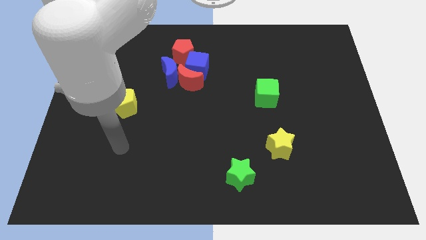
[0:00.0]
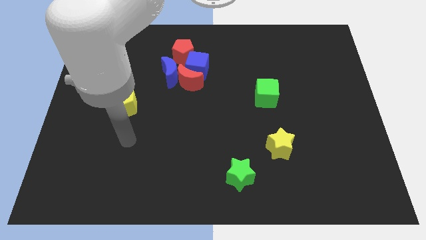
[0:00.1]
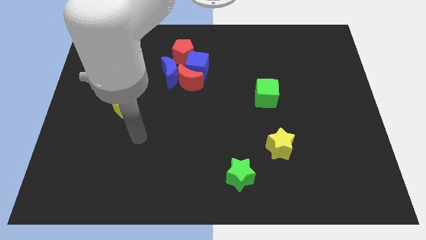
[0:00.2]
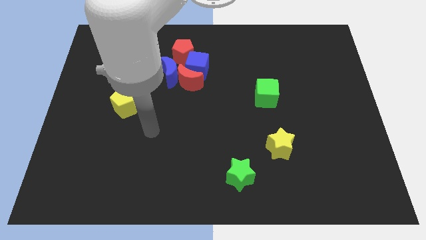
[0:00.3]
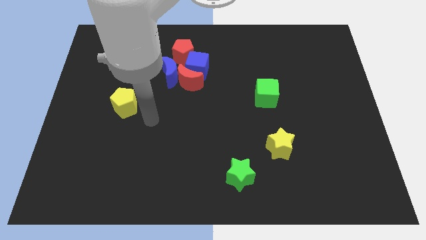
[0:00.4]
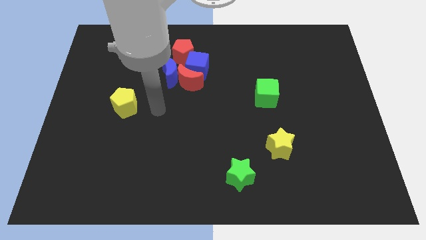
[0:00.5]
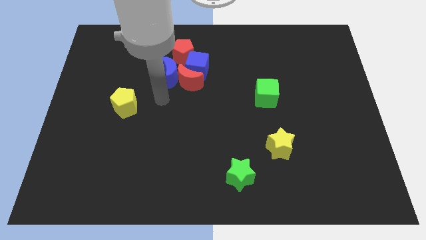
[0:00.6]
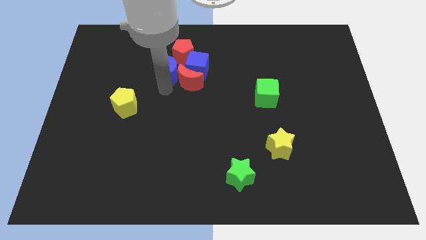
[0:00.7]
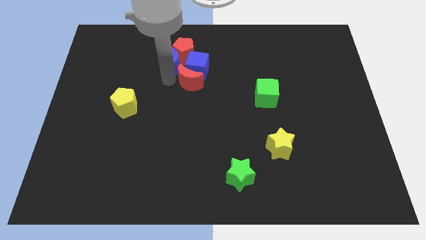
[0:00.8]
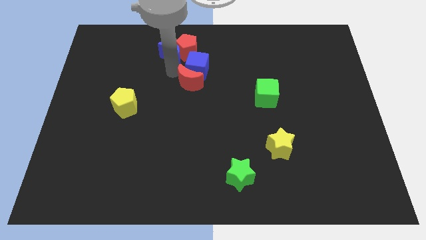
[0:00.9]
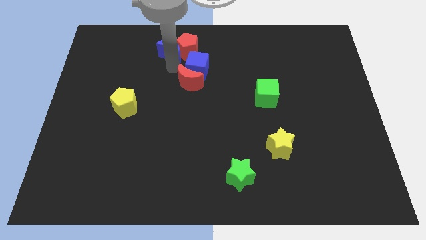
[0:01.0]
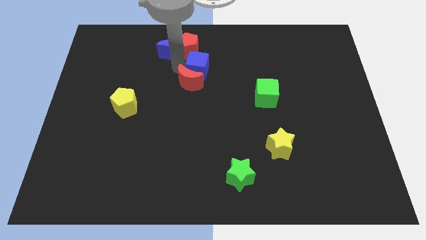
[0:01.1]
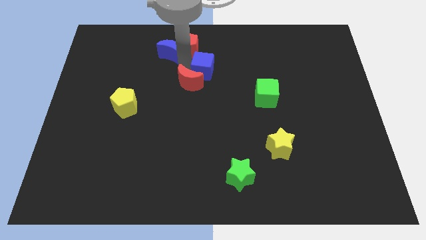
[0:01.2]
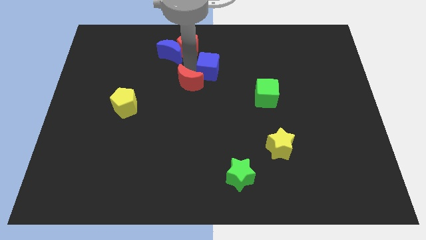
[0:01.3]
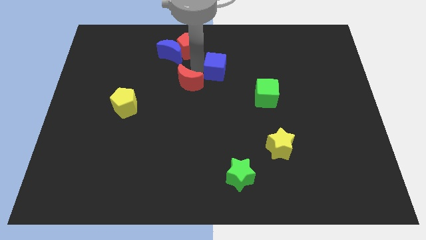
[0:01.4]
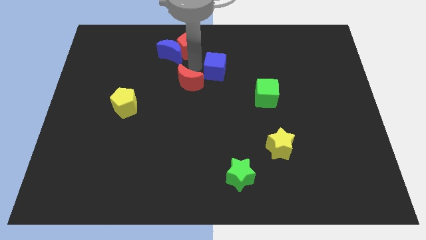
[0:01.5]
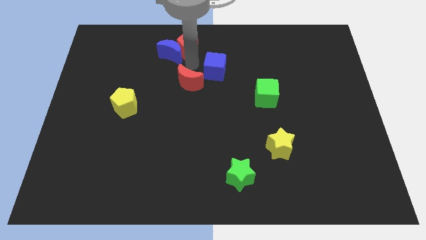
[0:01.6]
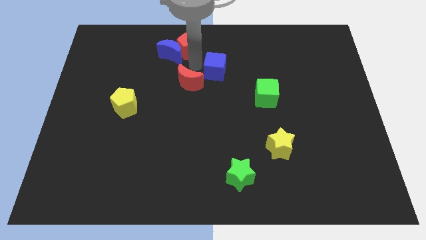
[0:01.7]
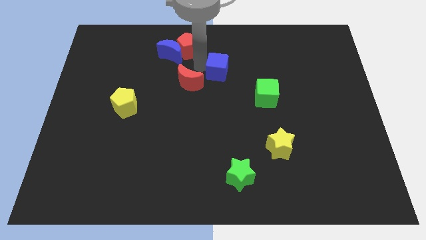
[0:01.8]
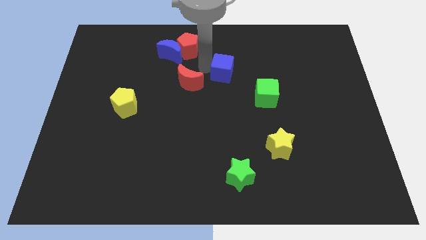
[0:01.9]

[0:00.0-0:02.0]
move the blue cube away from the clump

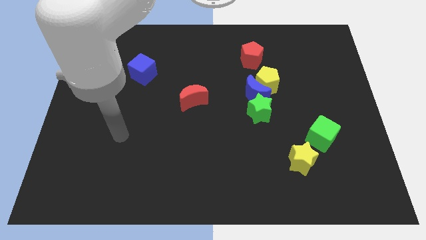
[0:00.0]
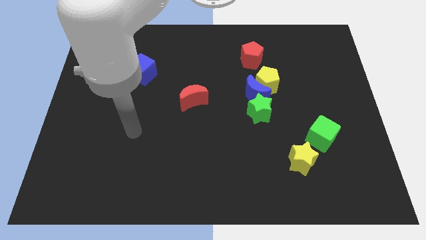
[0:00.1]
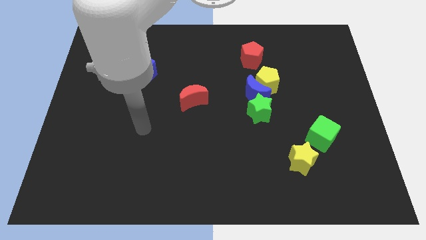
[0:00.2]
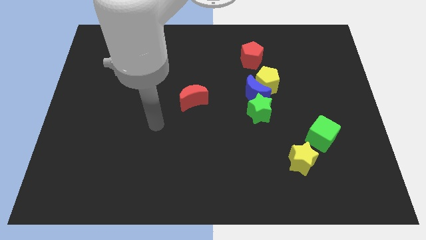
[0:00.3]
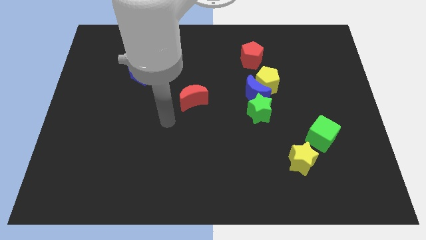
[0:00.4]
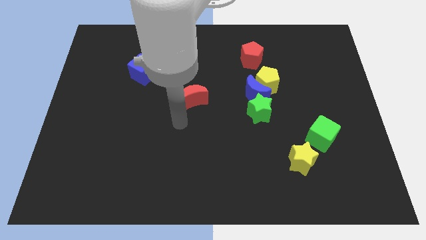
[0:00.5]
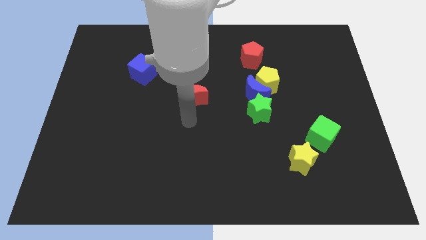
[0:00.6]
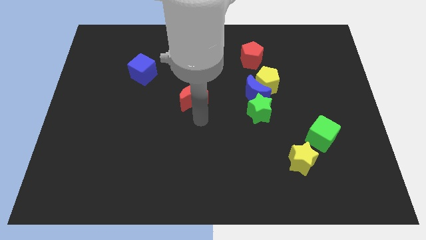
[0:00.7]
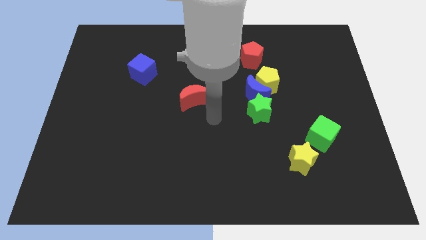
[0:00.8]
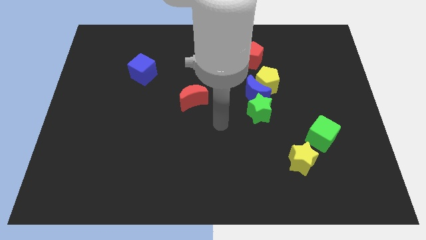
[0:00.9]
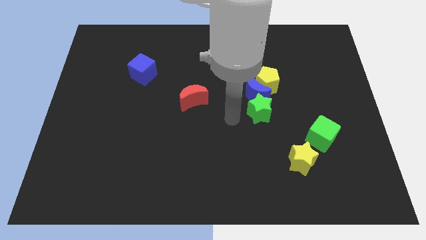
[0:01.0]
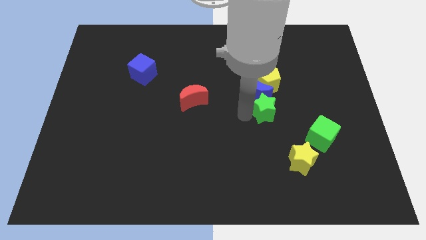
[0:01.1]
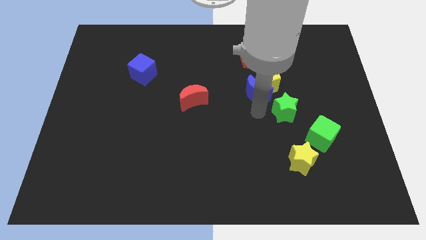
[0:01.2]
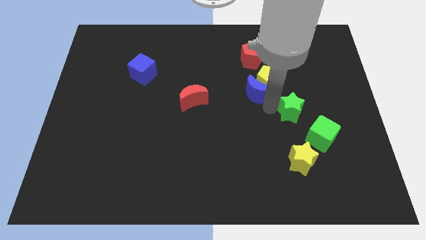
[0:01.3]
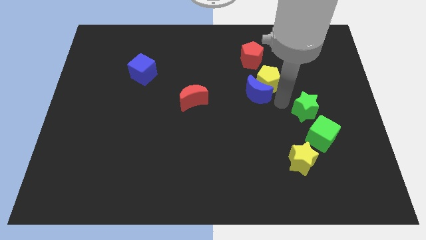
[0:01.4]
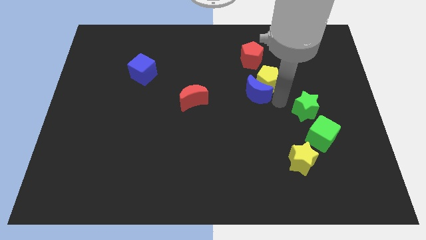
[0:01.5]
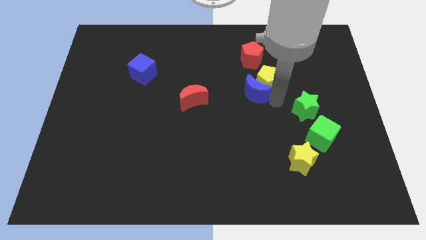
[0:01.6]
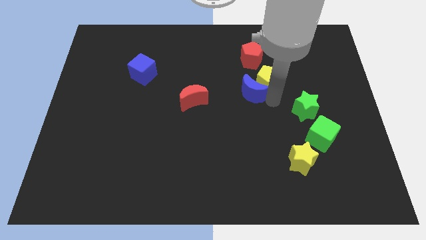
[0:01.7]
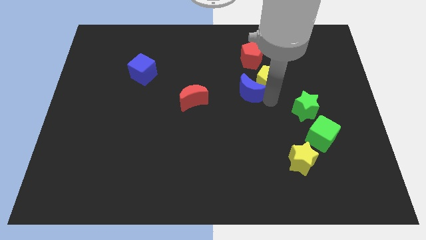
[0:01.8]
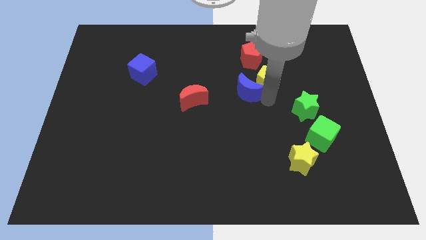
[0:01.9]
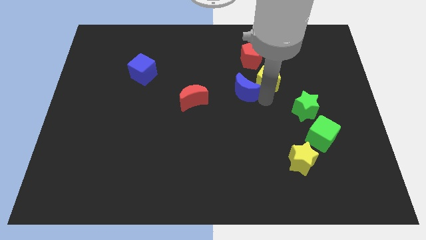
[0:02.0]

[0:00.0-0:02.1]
separate the blue moon from the yellow pentagon and green star

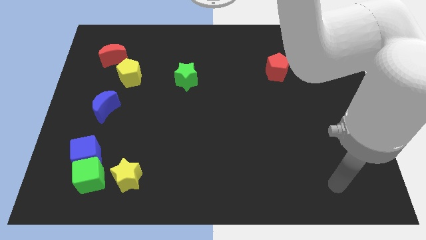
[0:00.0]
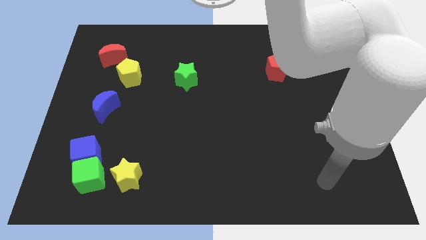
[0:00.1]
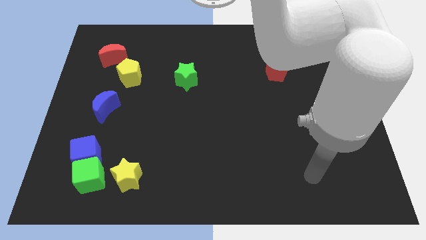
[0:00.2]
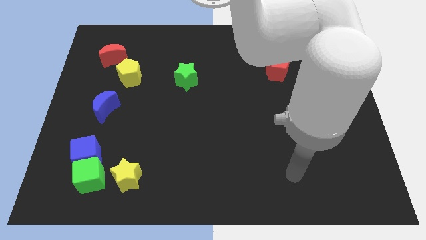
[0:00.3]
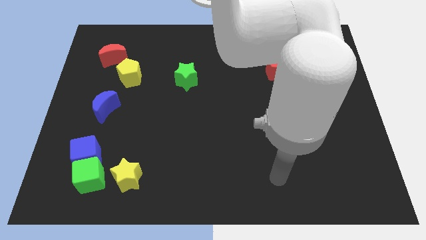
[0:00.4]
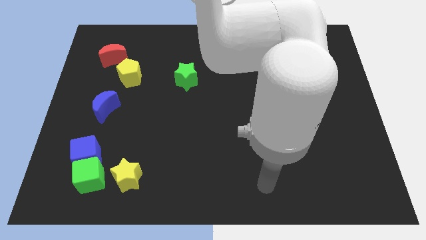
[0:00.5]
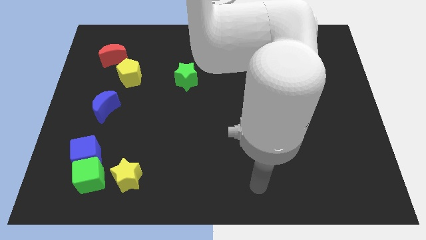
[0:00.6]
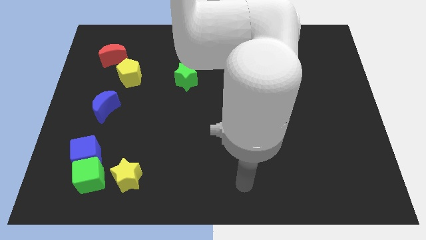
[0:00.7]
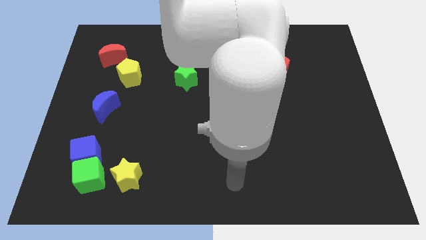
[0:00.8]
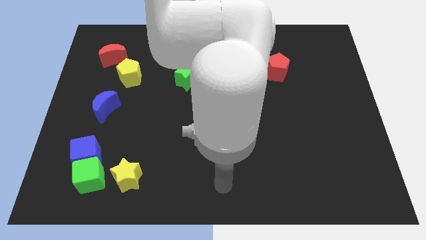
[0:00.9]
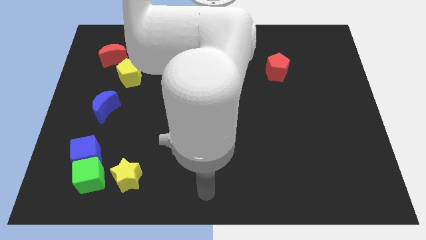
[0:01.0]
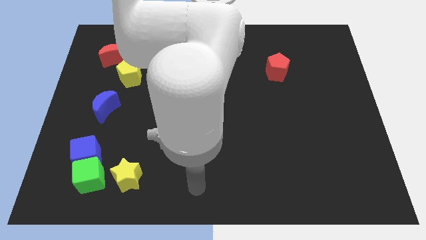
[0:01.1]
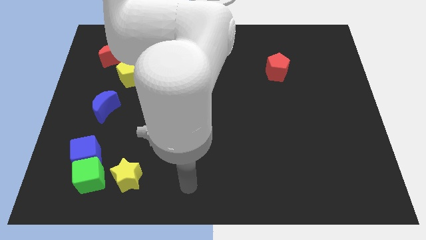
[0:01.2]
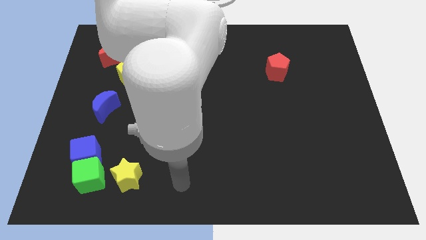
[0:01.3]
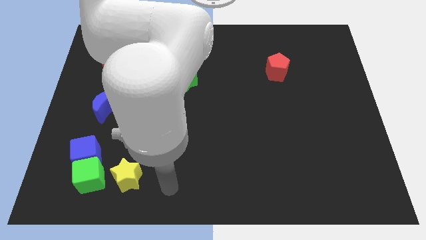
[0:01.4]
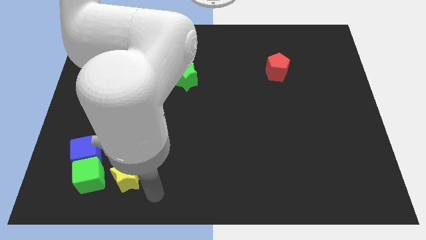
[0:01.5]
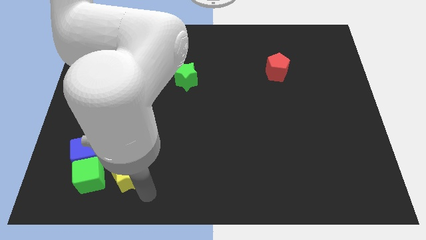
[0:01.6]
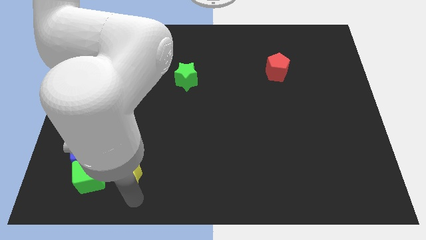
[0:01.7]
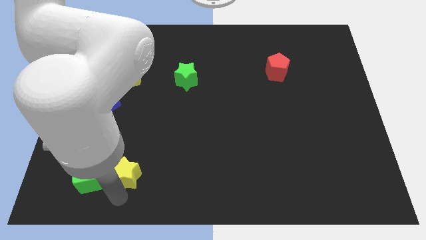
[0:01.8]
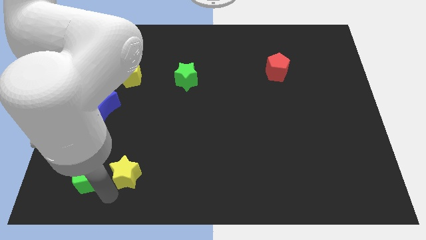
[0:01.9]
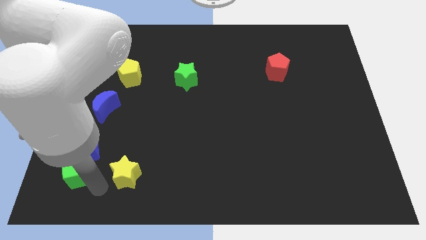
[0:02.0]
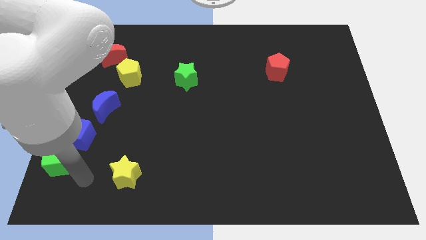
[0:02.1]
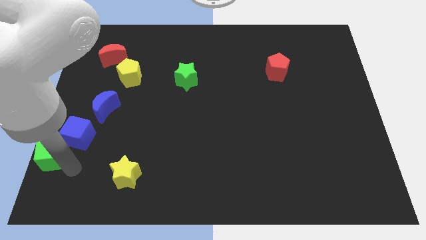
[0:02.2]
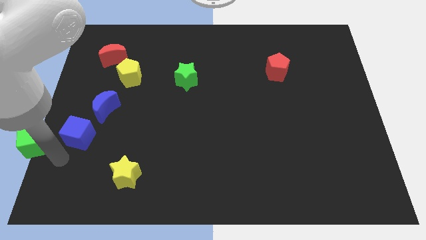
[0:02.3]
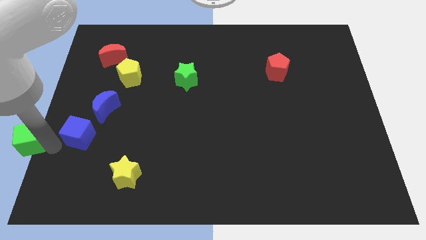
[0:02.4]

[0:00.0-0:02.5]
separate the blue cube from the green cube

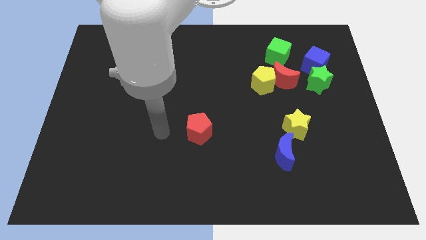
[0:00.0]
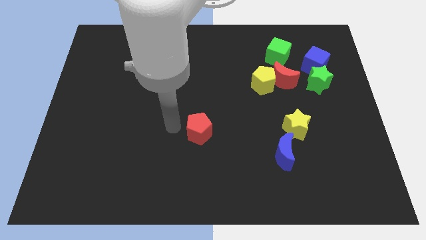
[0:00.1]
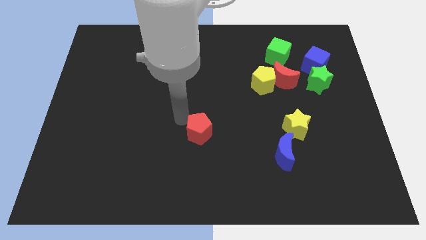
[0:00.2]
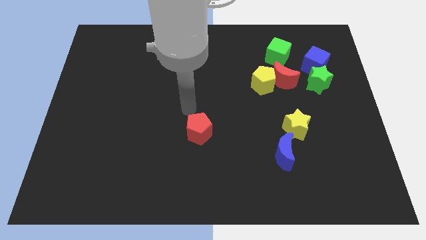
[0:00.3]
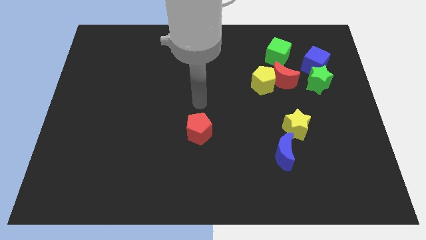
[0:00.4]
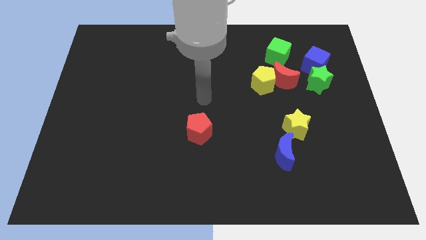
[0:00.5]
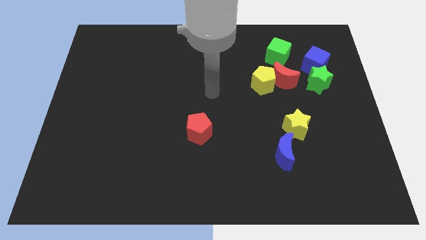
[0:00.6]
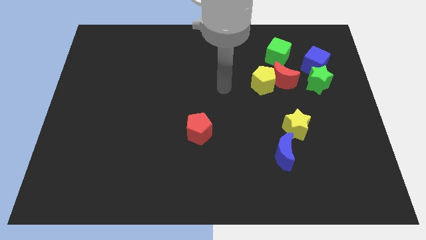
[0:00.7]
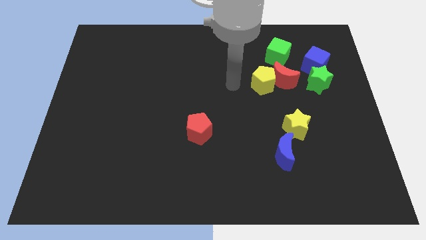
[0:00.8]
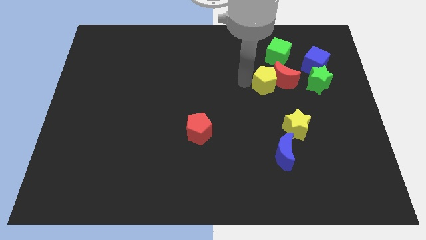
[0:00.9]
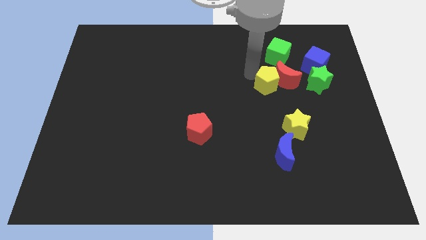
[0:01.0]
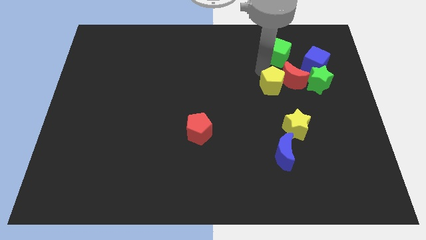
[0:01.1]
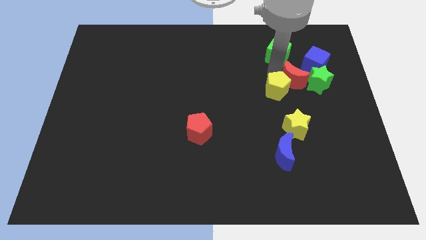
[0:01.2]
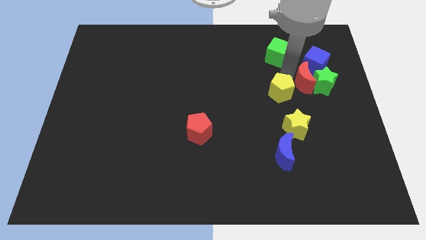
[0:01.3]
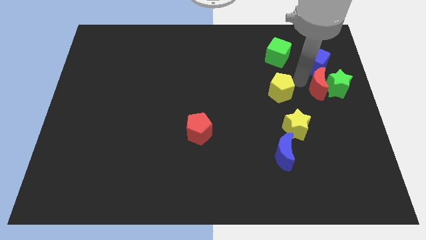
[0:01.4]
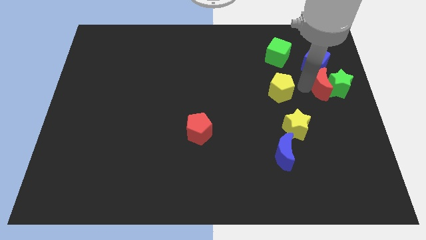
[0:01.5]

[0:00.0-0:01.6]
pull the yellow pentagon apart from the red moon

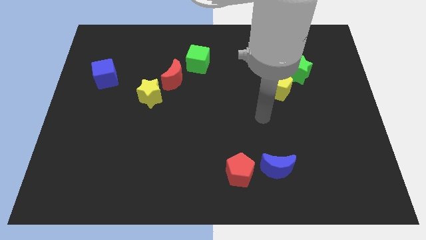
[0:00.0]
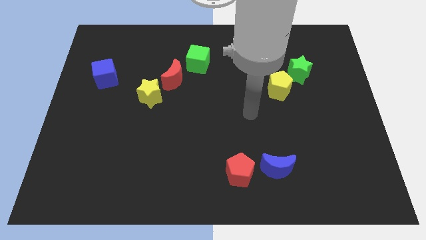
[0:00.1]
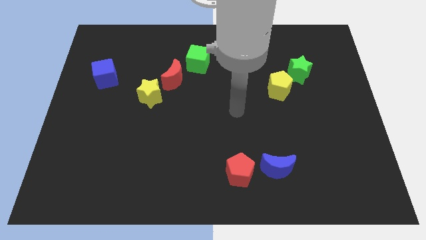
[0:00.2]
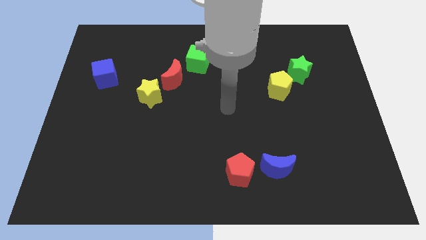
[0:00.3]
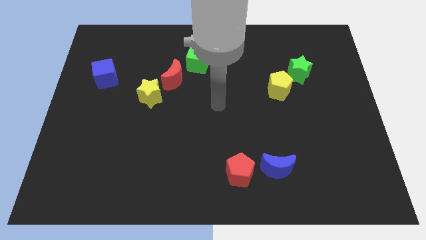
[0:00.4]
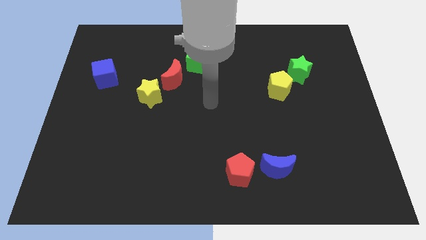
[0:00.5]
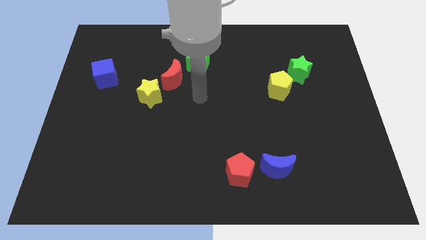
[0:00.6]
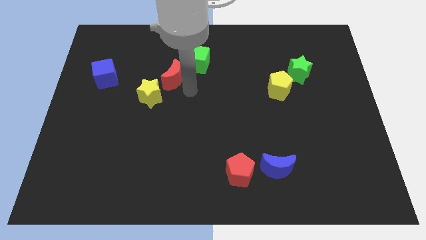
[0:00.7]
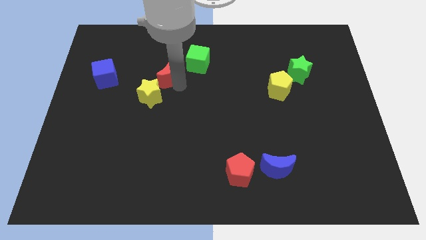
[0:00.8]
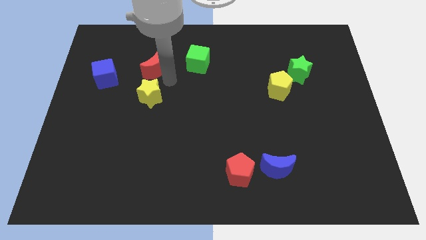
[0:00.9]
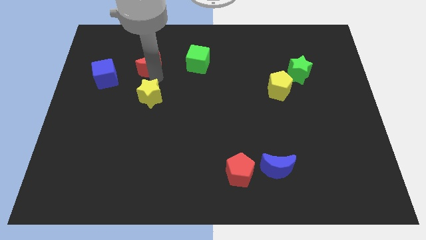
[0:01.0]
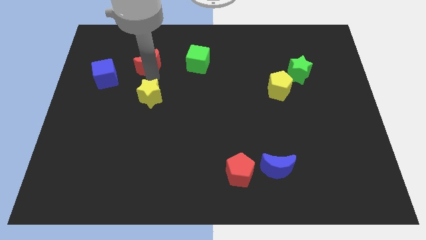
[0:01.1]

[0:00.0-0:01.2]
move the yellow star away from the red moon
